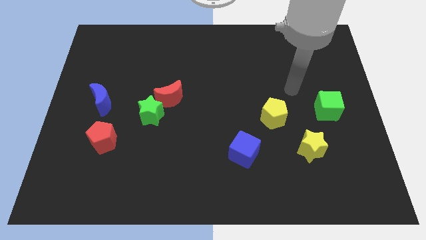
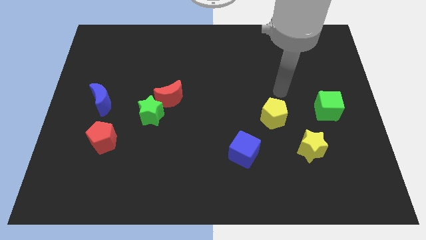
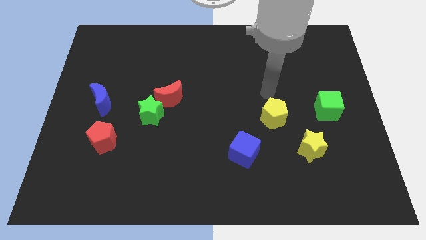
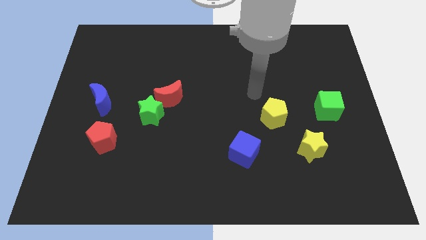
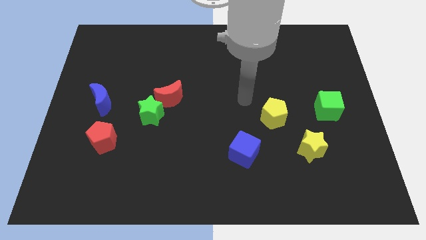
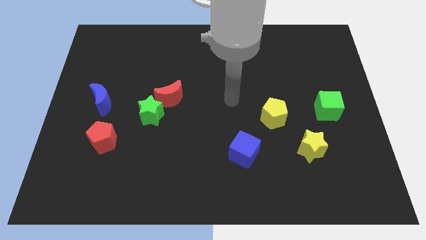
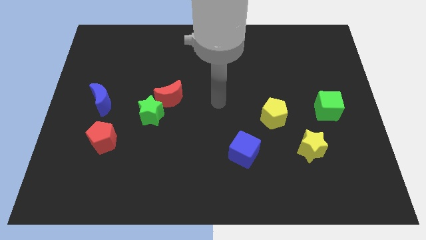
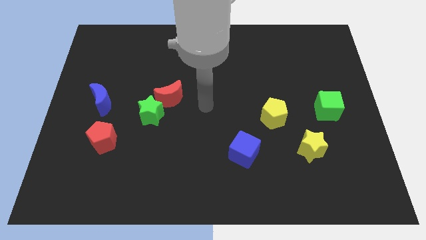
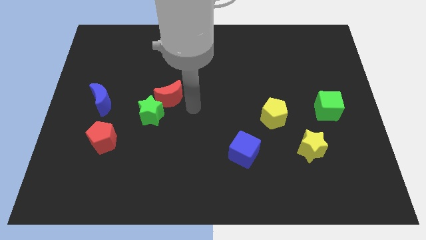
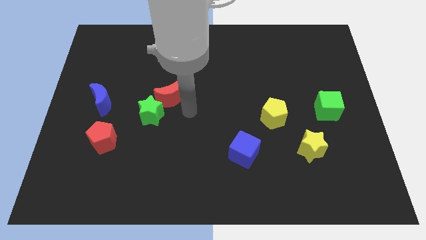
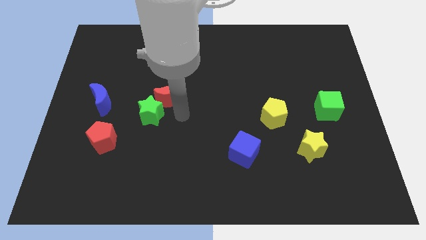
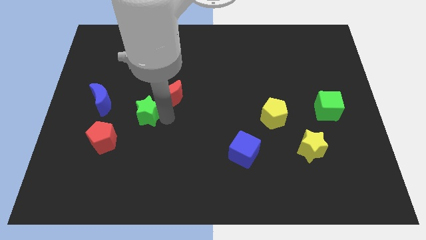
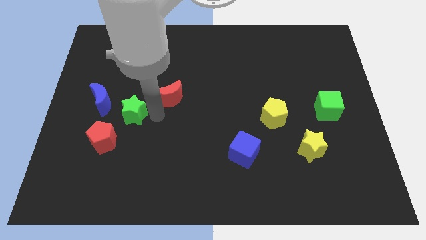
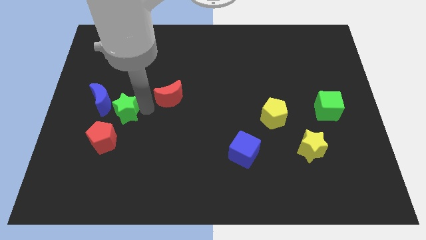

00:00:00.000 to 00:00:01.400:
move the red moon away from the green star

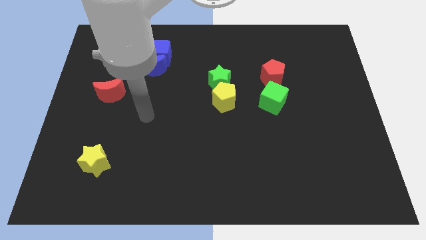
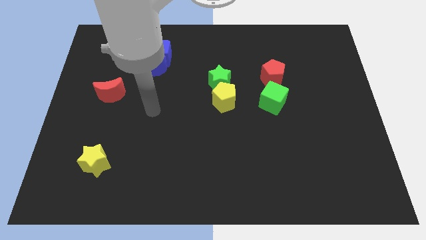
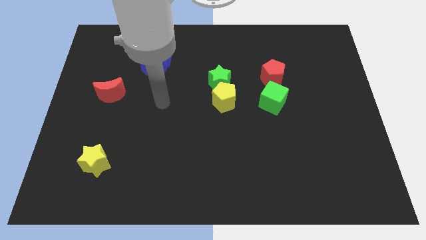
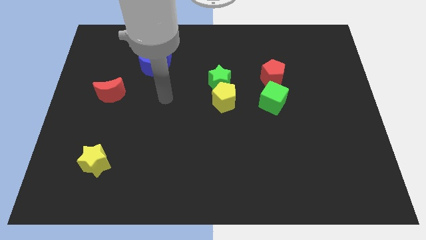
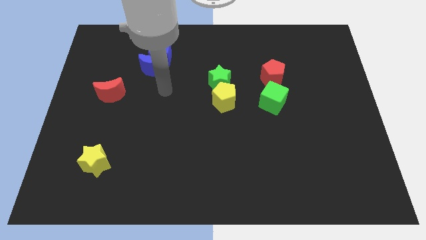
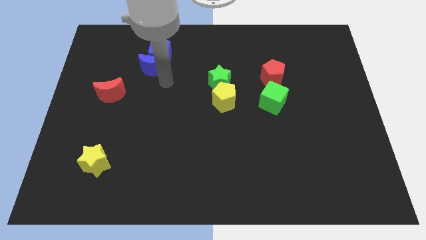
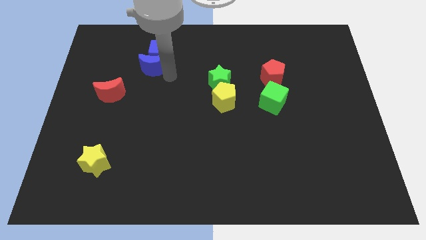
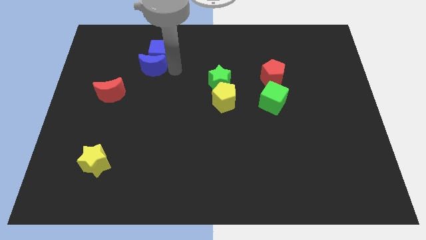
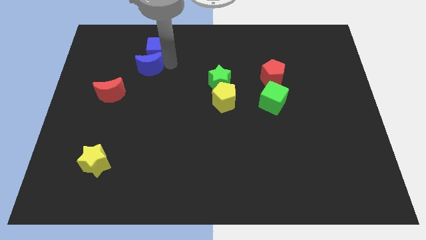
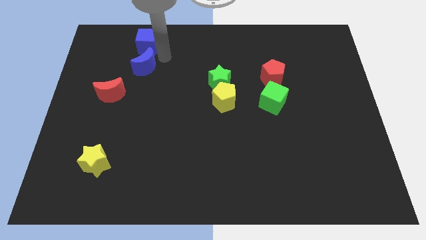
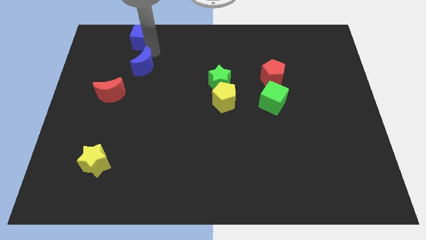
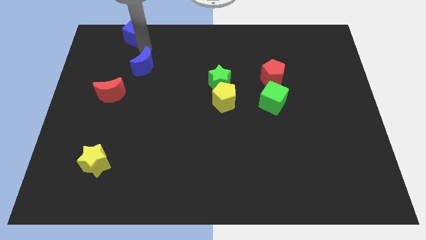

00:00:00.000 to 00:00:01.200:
pull the blue moon apart from the blue cube

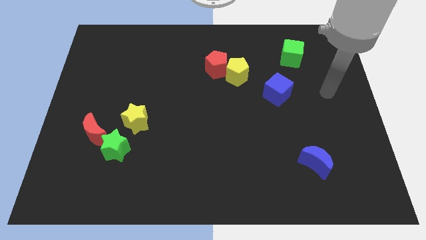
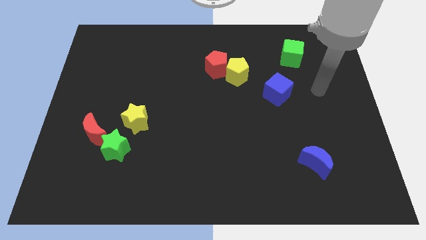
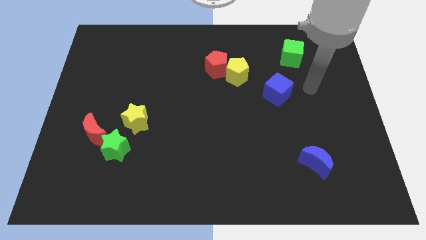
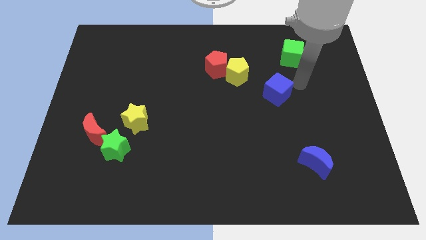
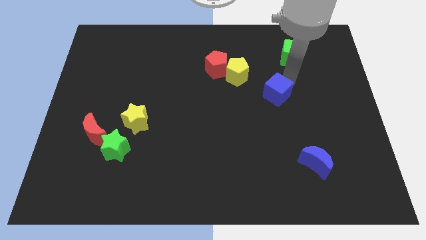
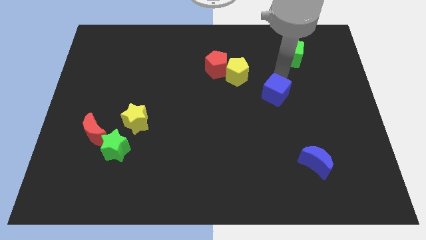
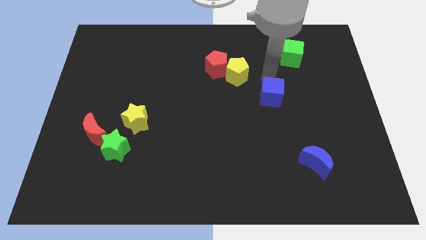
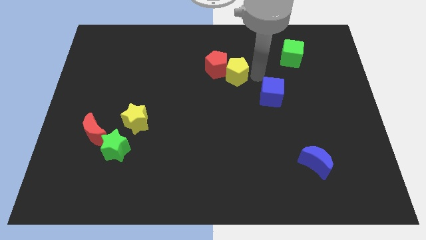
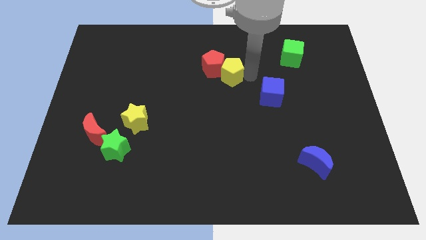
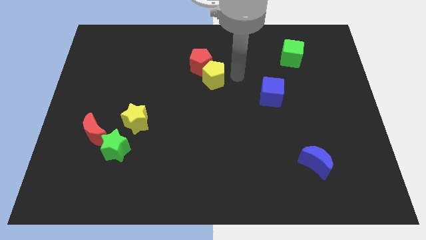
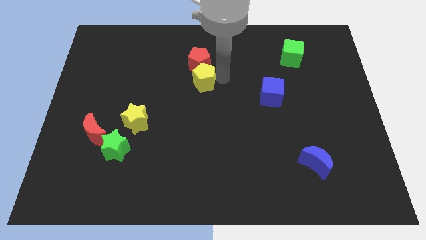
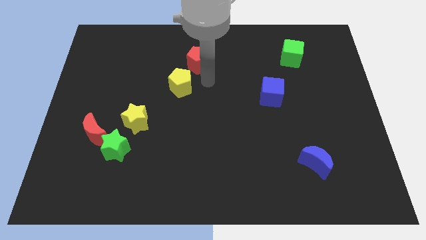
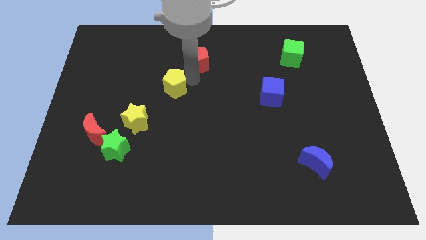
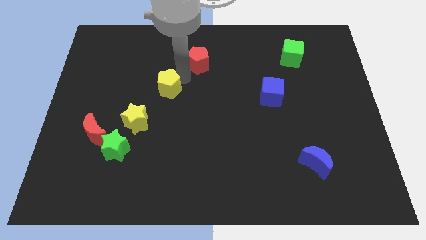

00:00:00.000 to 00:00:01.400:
move the red pentagon away from the yellow pentagon

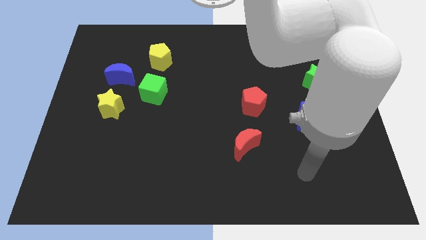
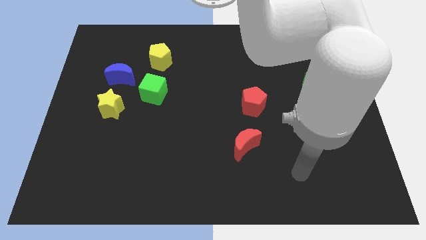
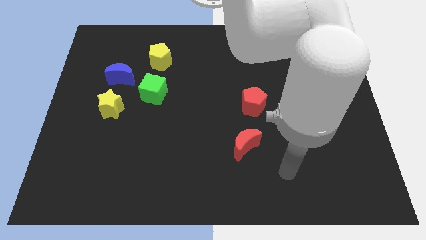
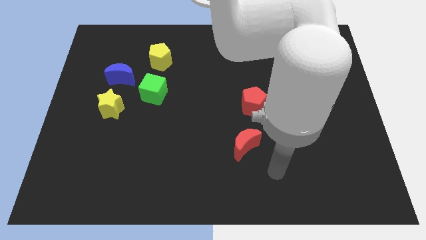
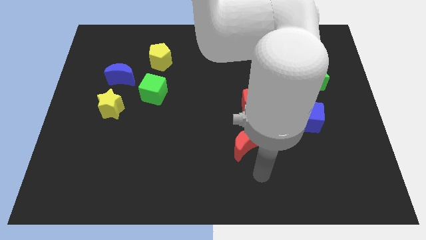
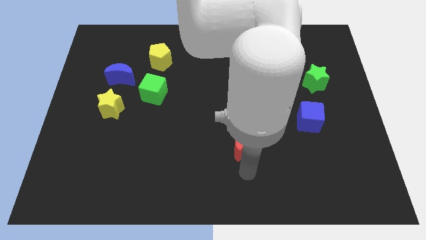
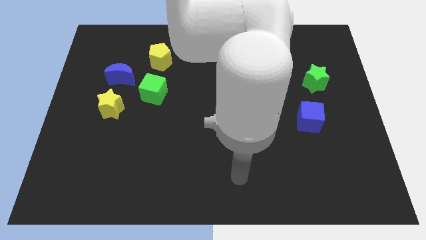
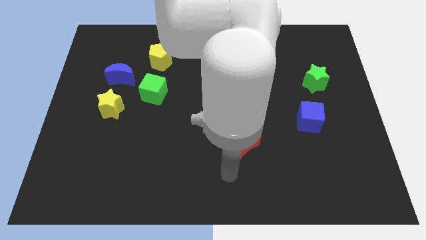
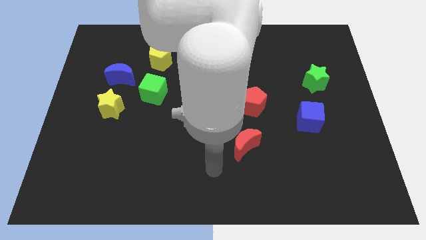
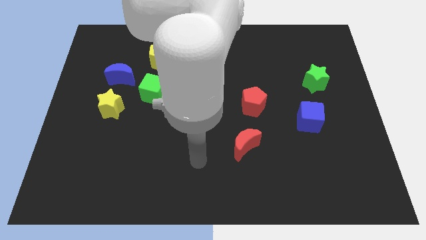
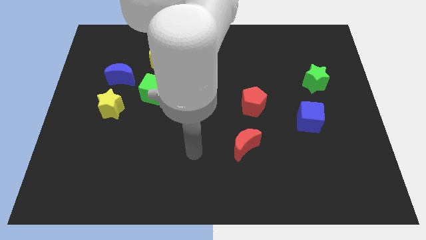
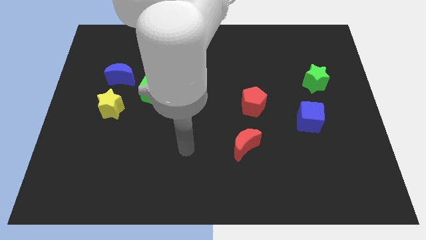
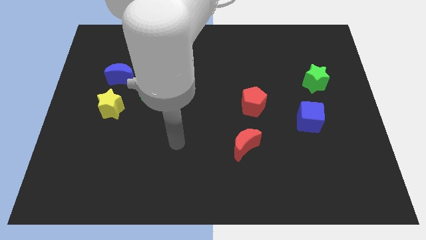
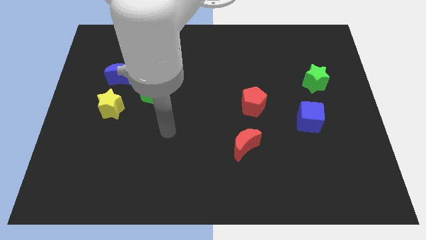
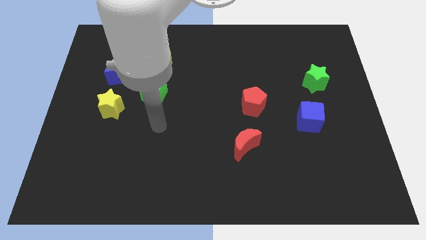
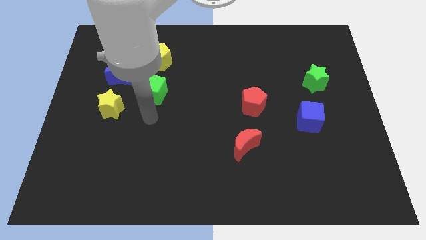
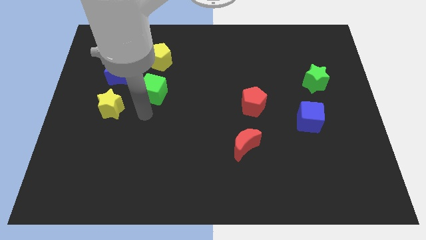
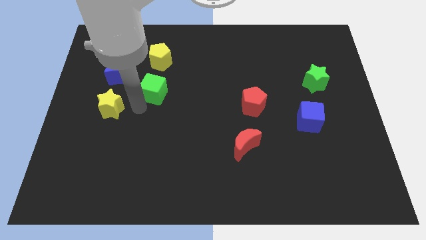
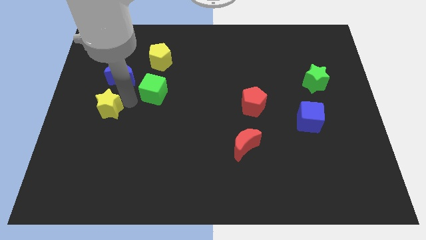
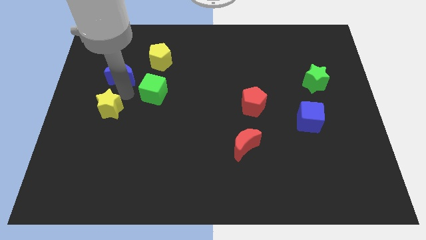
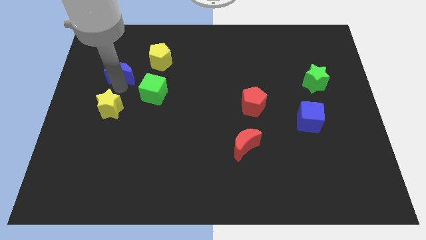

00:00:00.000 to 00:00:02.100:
pull the yellow star apart from the blue moon

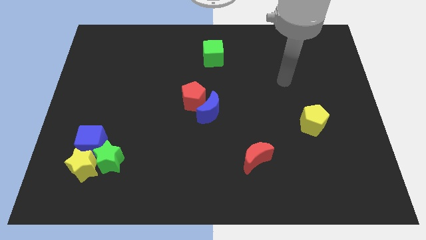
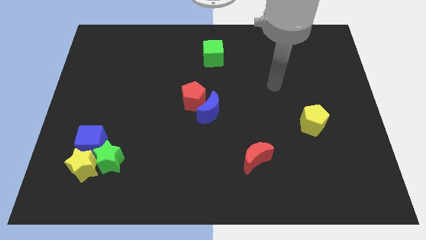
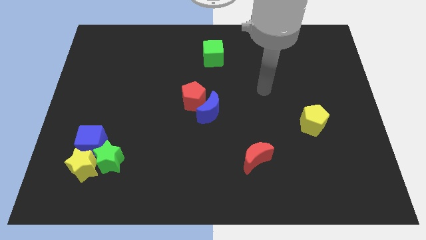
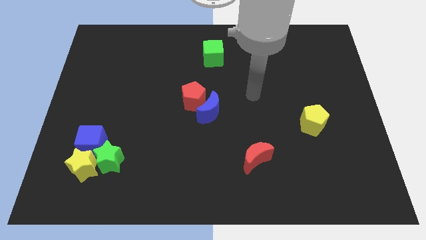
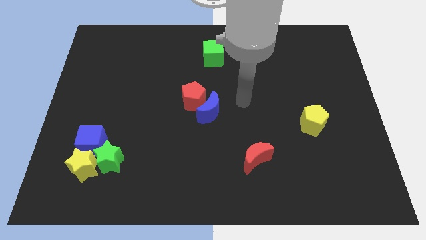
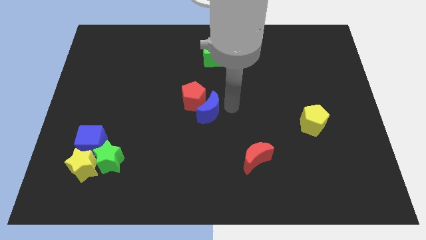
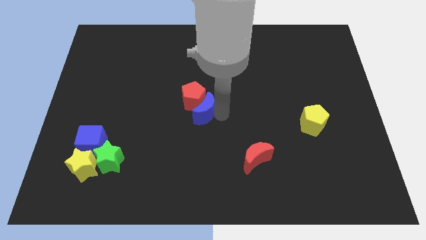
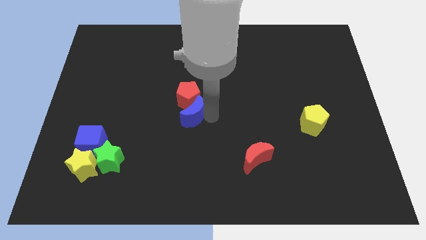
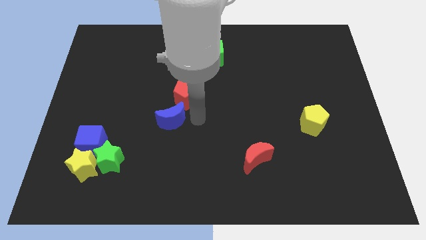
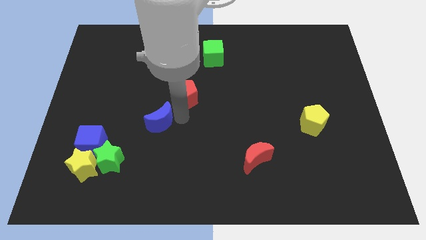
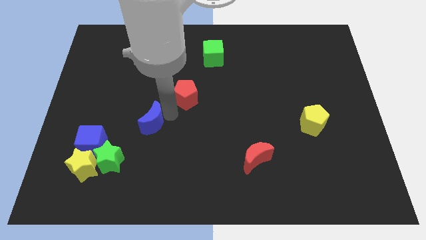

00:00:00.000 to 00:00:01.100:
pull the red pentagon apart from the blue moon

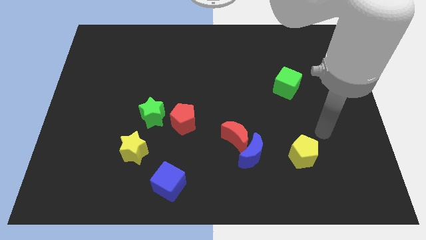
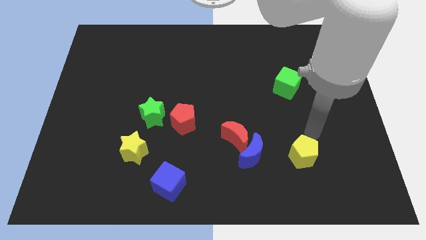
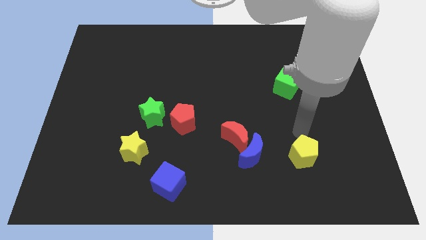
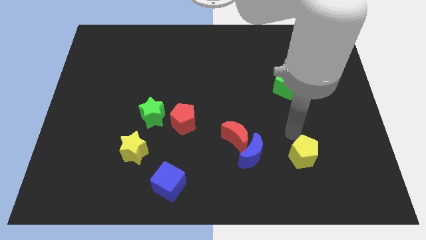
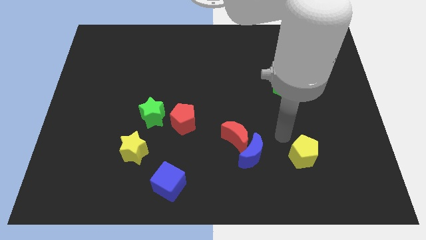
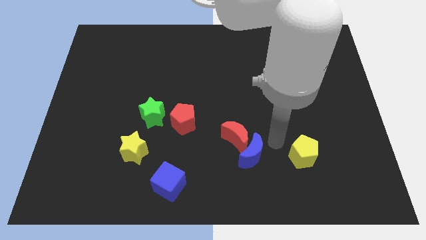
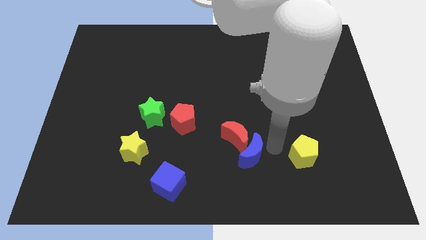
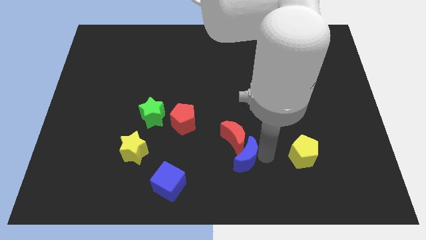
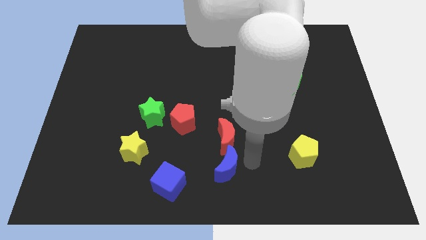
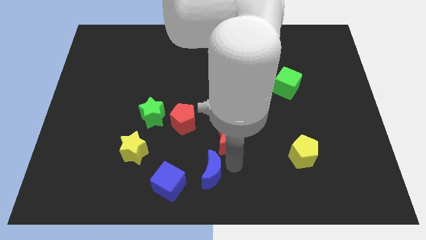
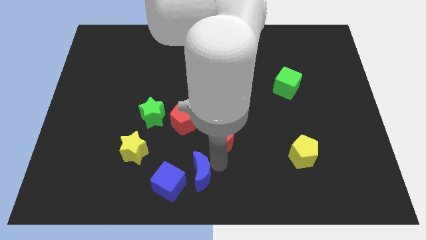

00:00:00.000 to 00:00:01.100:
separate the red moon from the blue moon

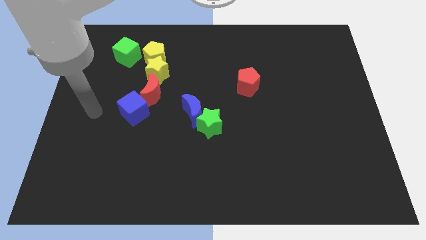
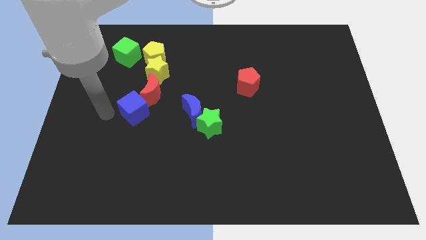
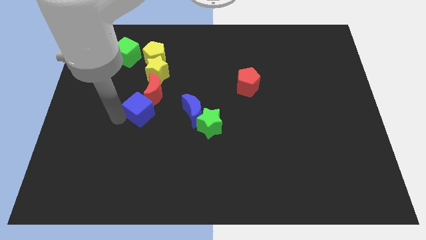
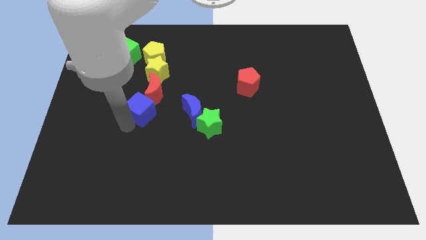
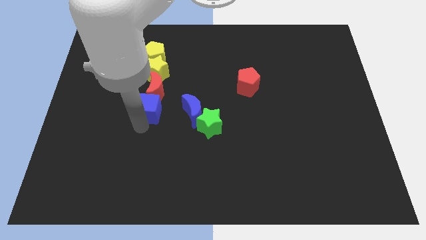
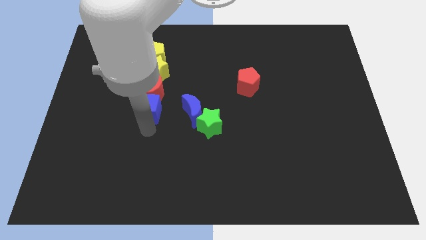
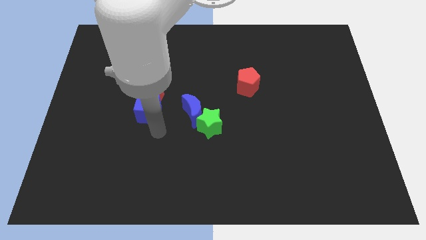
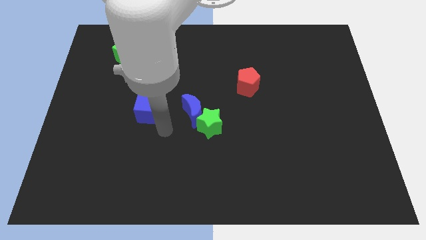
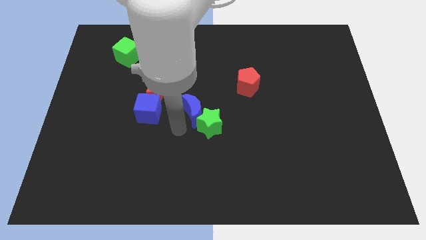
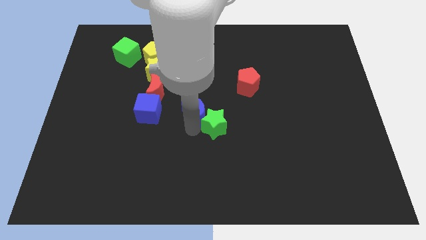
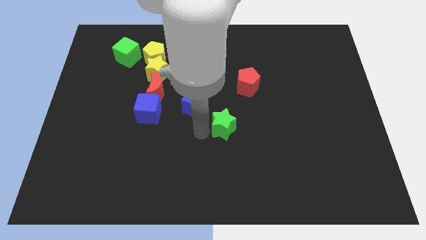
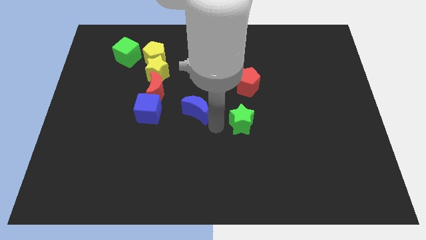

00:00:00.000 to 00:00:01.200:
move the blue moon away from the green star
